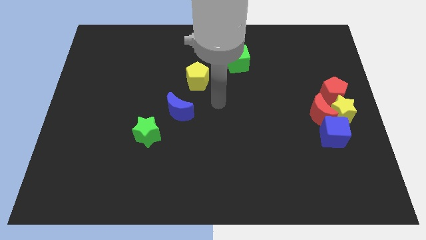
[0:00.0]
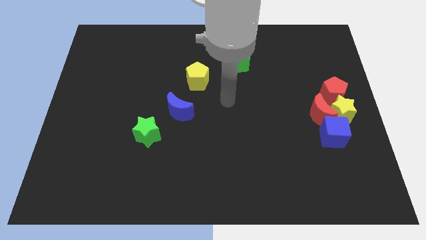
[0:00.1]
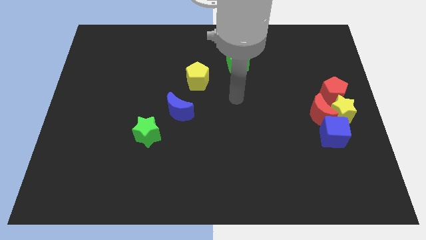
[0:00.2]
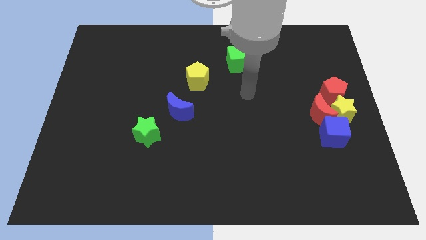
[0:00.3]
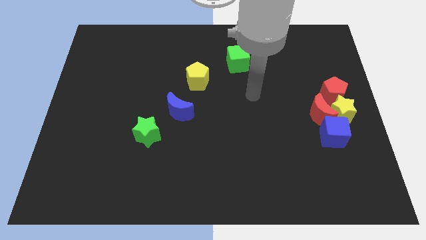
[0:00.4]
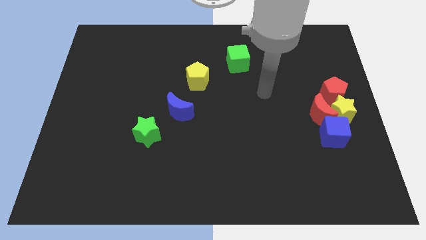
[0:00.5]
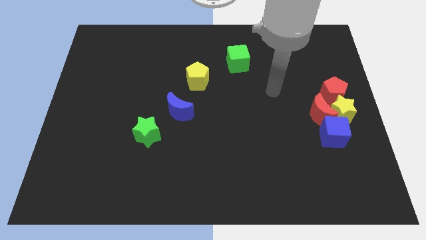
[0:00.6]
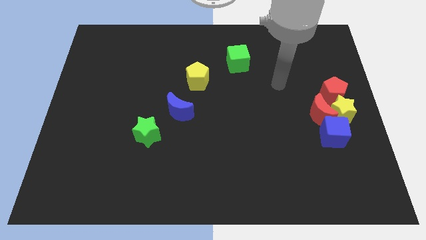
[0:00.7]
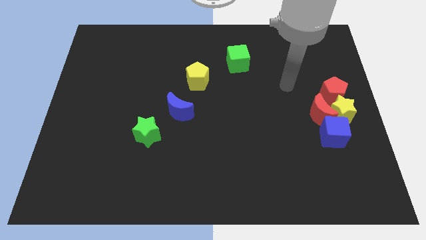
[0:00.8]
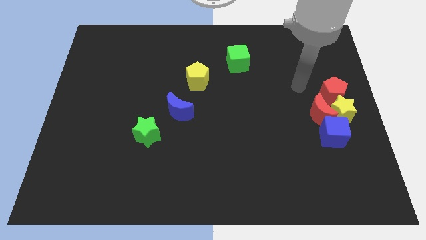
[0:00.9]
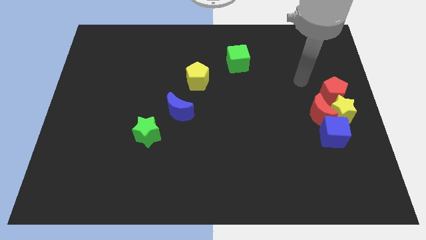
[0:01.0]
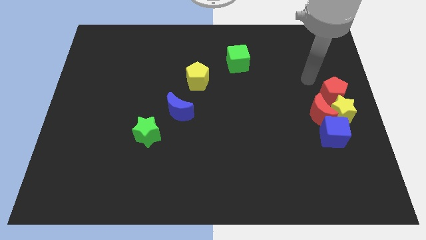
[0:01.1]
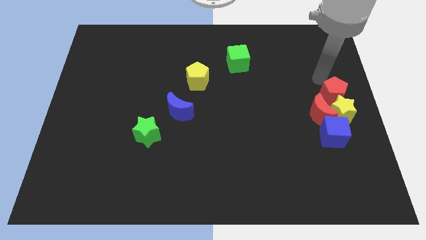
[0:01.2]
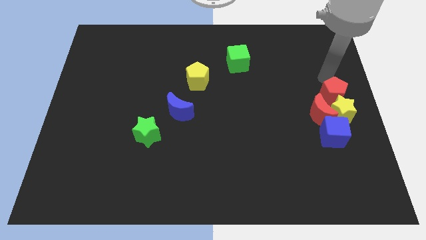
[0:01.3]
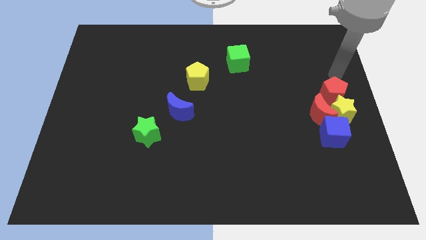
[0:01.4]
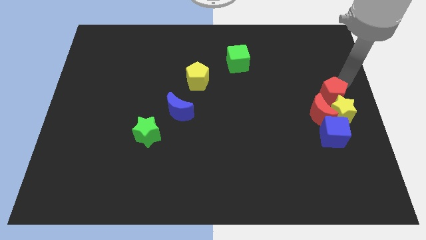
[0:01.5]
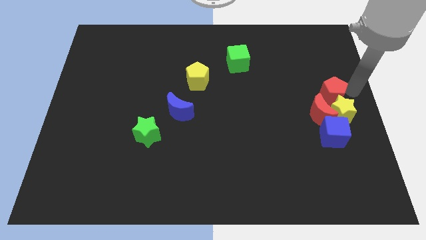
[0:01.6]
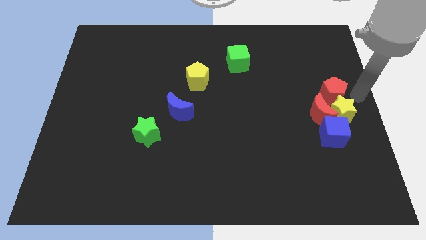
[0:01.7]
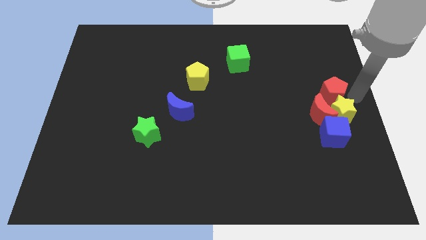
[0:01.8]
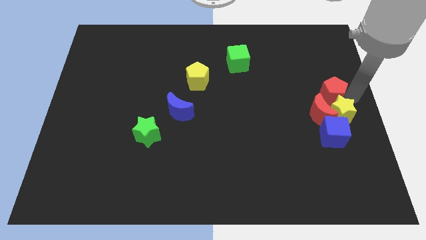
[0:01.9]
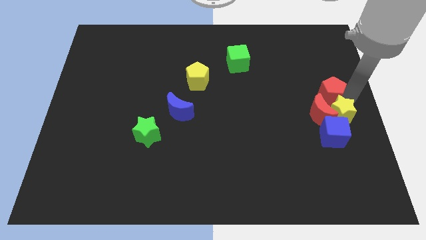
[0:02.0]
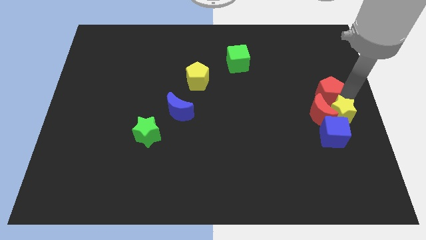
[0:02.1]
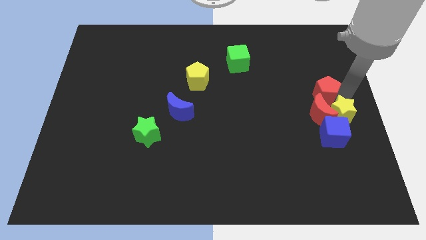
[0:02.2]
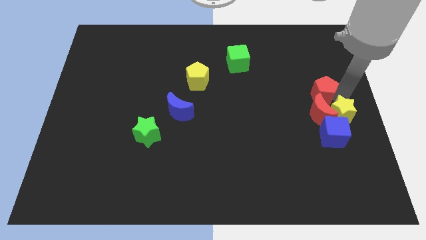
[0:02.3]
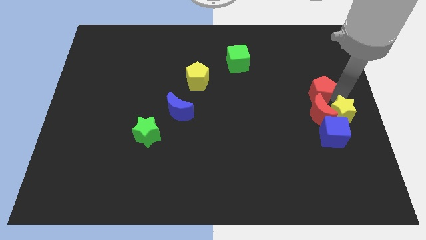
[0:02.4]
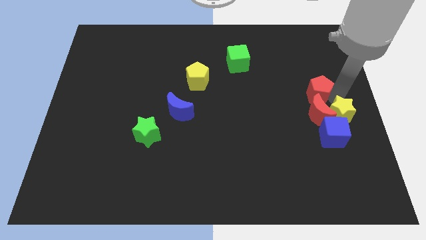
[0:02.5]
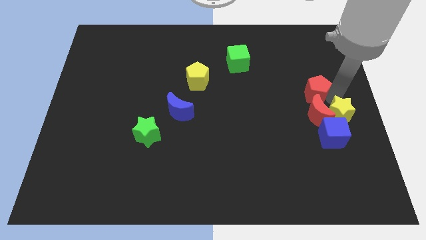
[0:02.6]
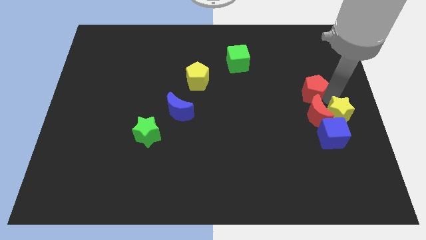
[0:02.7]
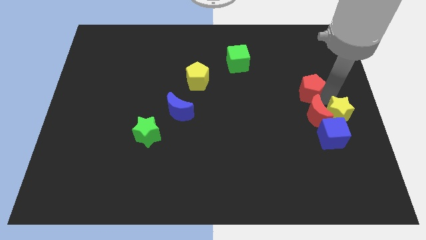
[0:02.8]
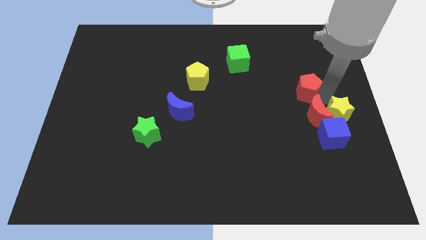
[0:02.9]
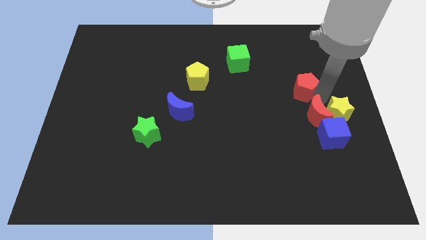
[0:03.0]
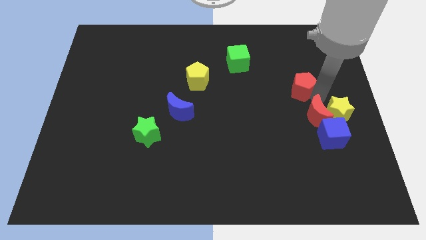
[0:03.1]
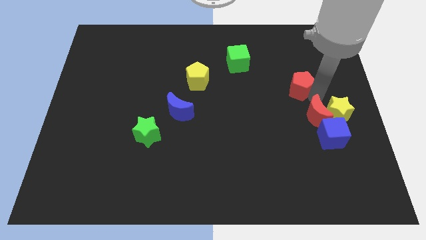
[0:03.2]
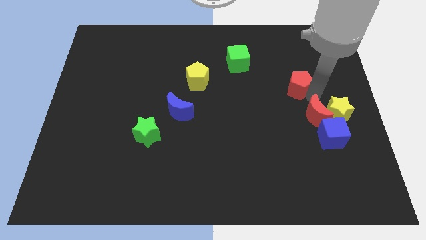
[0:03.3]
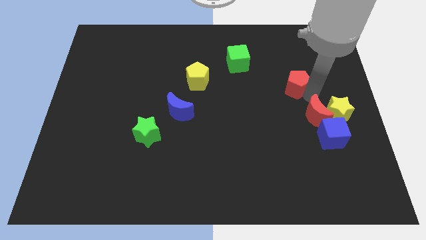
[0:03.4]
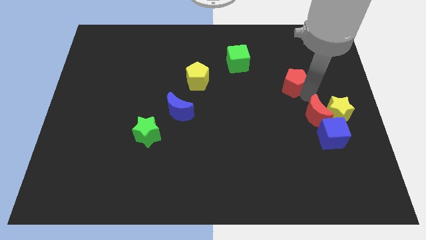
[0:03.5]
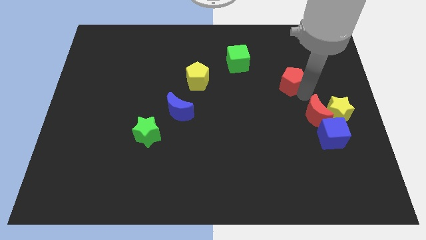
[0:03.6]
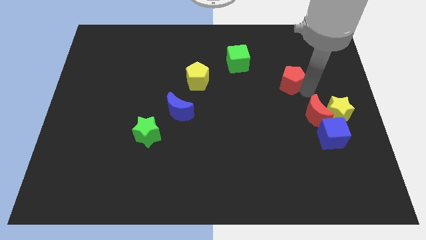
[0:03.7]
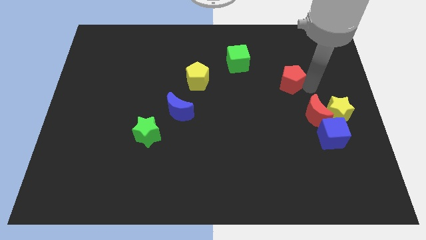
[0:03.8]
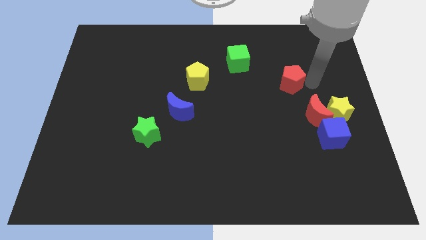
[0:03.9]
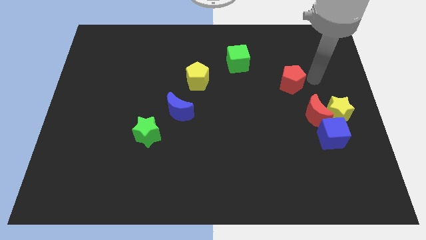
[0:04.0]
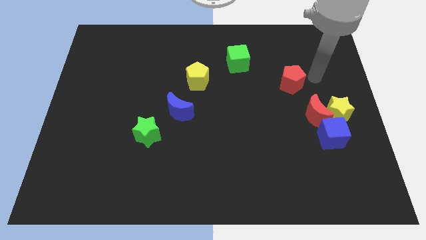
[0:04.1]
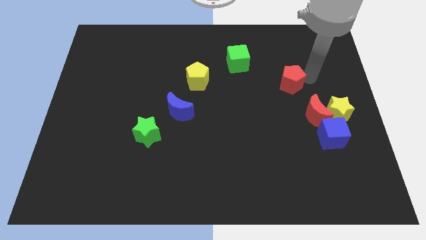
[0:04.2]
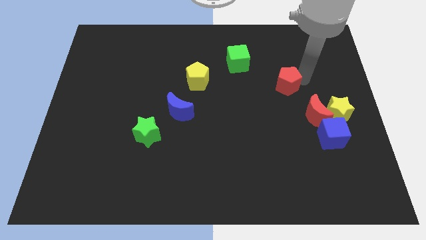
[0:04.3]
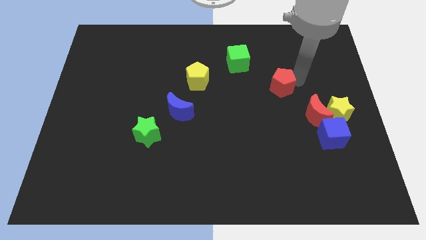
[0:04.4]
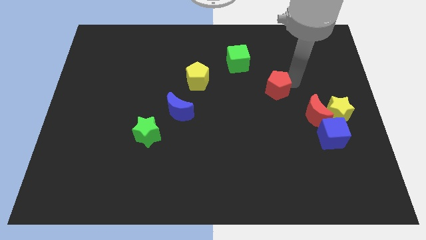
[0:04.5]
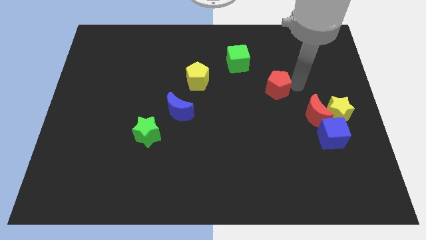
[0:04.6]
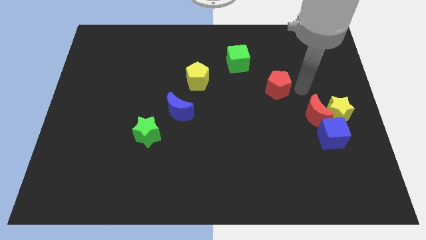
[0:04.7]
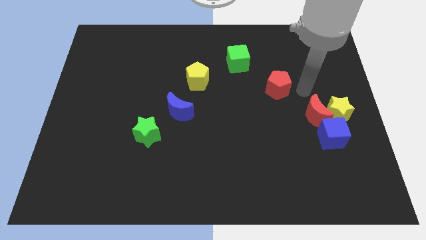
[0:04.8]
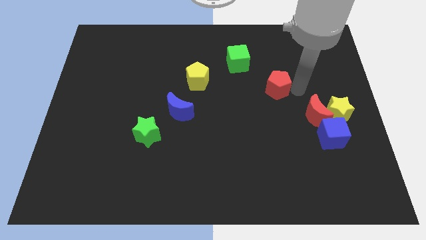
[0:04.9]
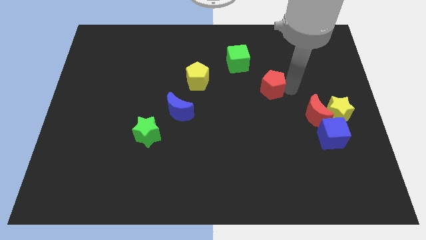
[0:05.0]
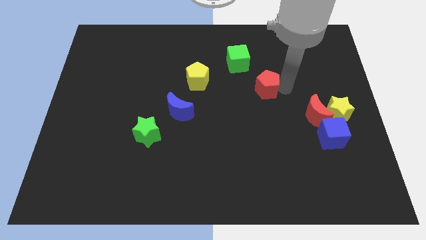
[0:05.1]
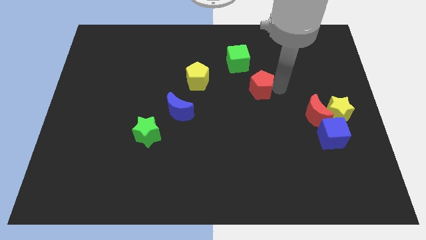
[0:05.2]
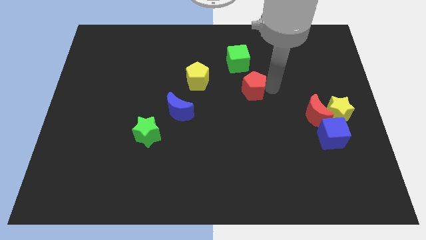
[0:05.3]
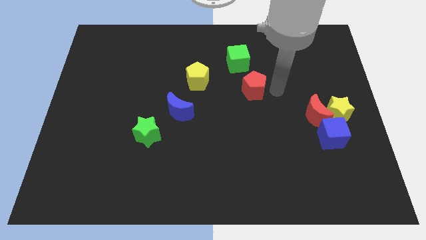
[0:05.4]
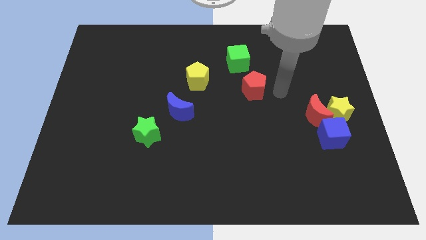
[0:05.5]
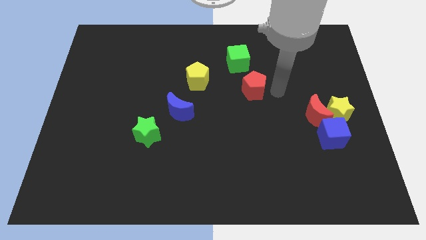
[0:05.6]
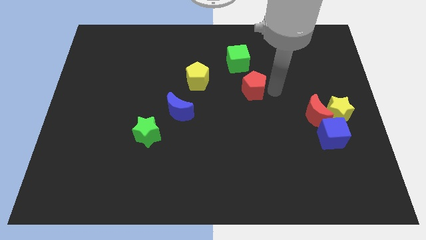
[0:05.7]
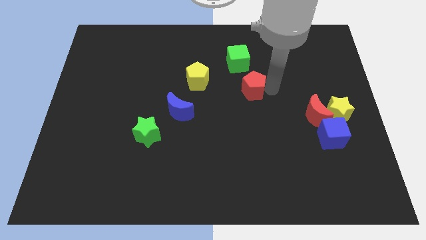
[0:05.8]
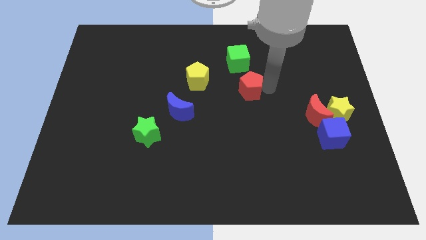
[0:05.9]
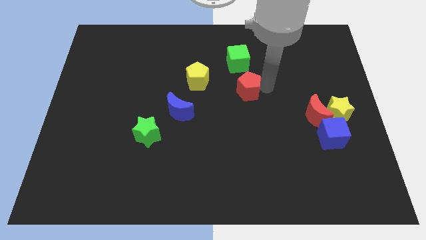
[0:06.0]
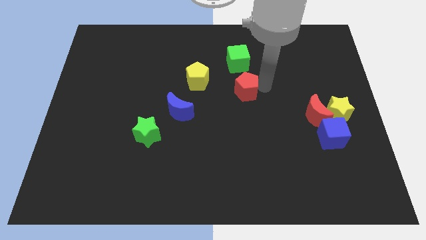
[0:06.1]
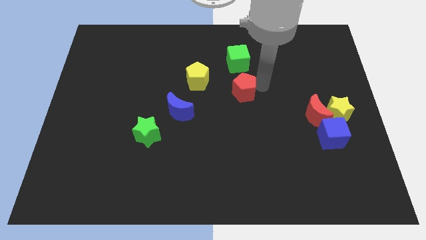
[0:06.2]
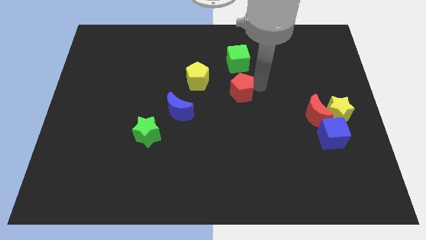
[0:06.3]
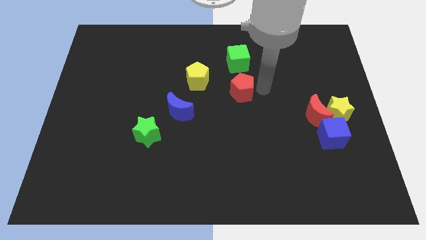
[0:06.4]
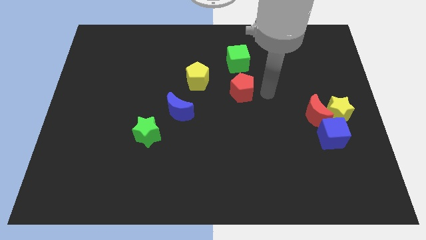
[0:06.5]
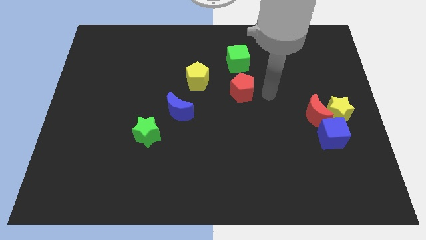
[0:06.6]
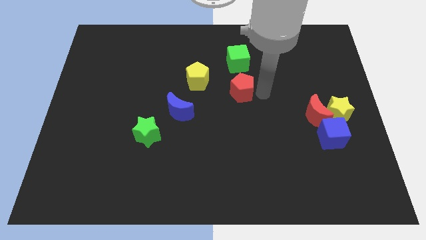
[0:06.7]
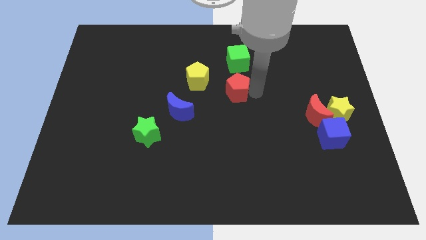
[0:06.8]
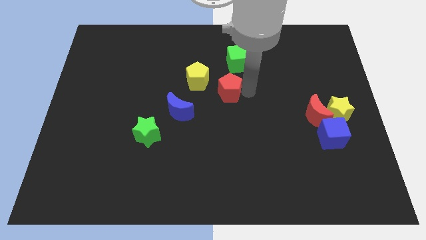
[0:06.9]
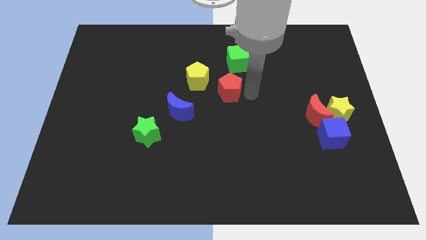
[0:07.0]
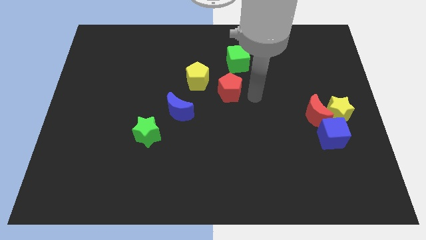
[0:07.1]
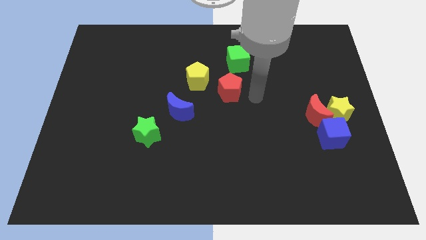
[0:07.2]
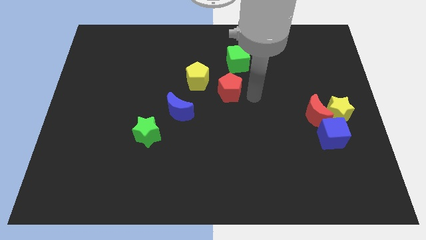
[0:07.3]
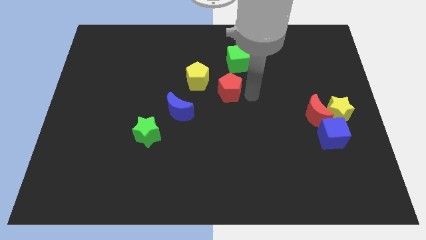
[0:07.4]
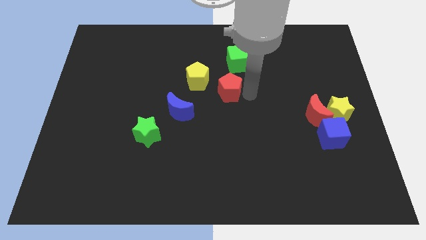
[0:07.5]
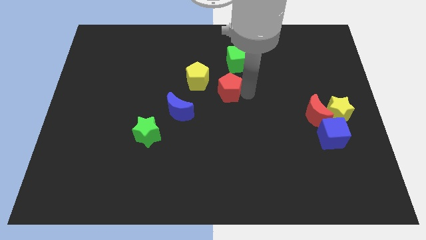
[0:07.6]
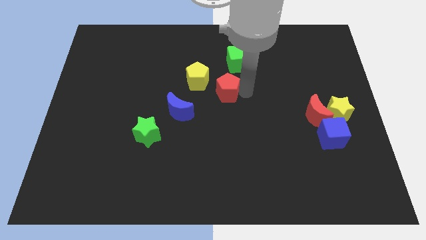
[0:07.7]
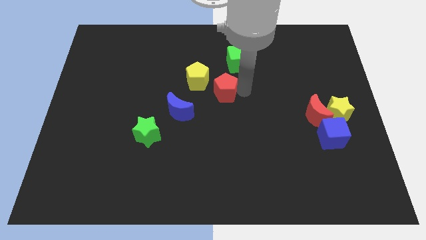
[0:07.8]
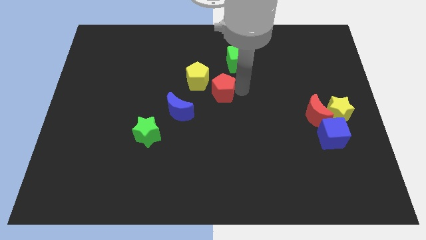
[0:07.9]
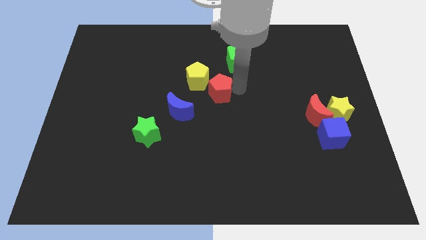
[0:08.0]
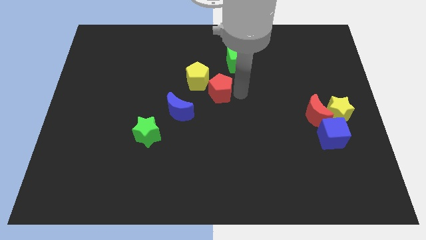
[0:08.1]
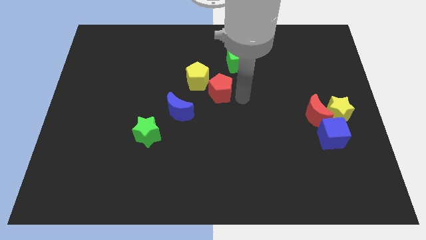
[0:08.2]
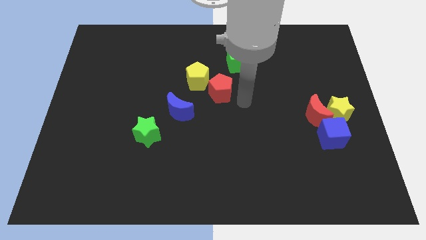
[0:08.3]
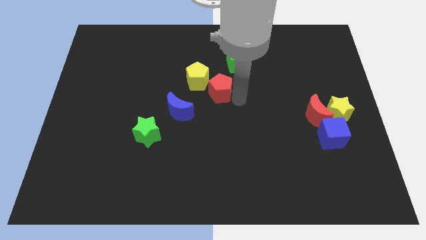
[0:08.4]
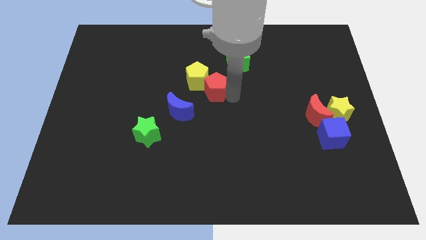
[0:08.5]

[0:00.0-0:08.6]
slide the red pentagon close to the yellow pentagon
